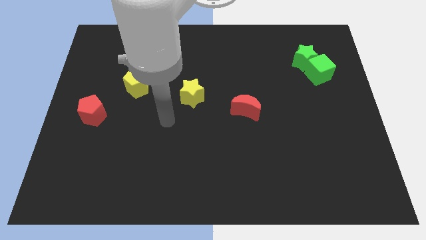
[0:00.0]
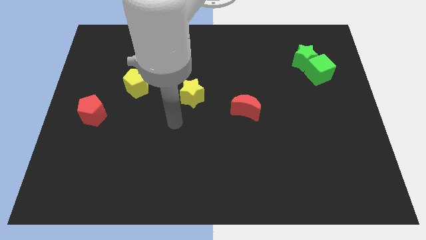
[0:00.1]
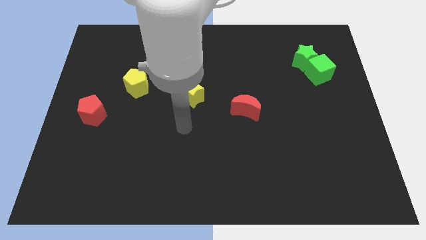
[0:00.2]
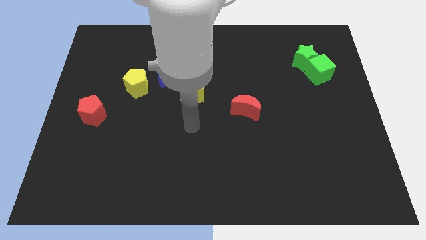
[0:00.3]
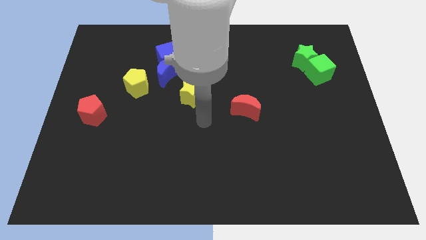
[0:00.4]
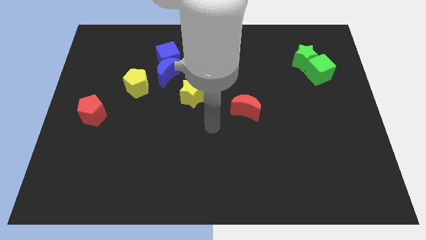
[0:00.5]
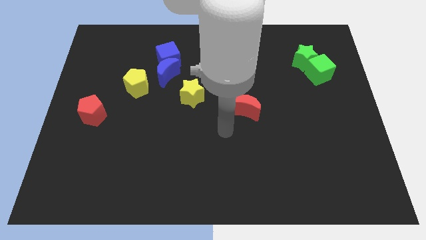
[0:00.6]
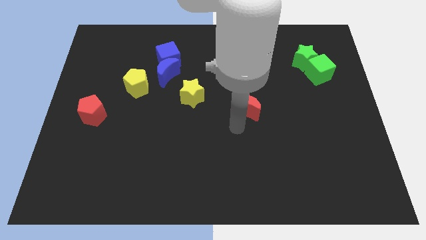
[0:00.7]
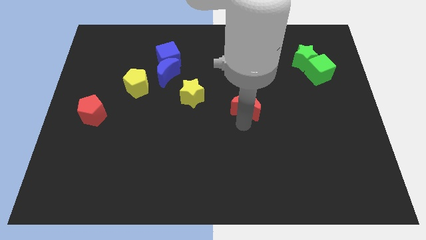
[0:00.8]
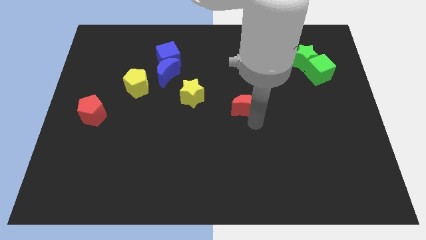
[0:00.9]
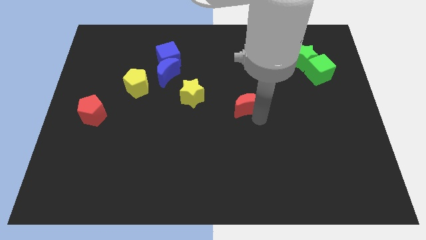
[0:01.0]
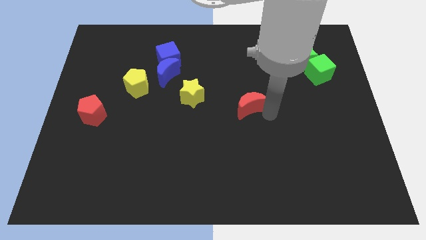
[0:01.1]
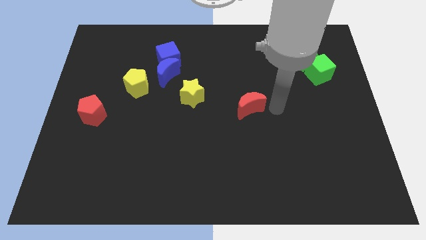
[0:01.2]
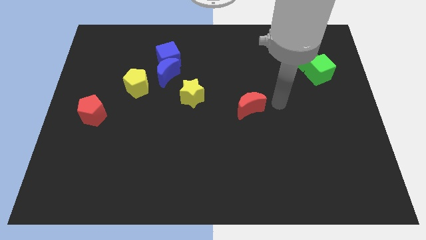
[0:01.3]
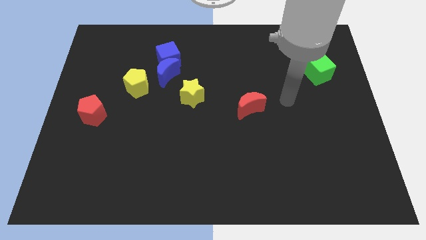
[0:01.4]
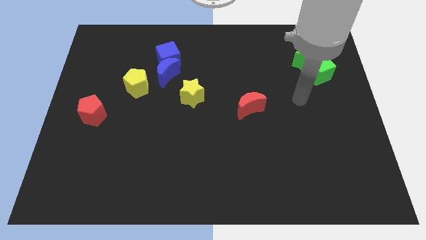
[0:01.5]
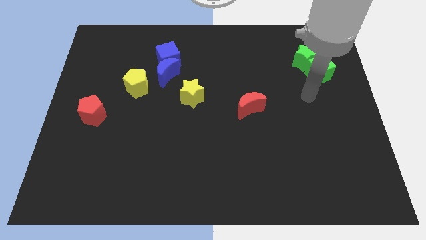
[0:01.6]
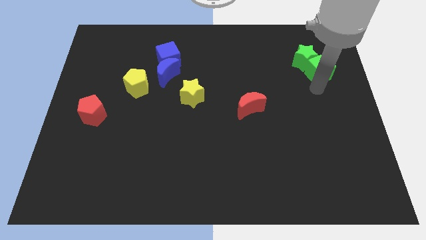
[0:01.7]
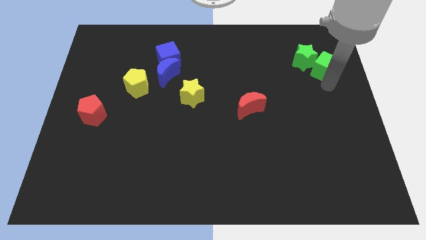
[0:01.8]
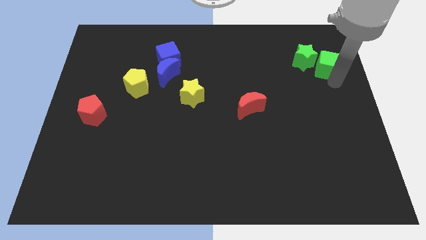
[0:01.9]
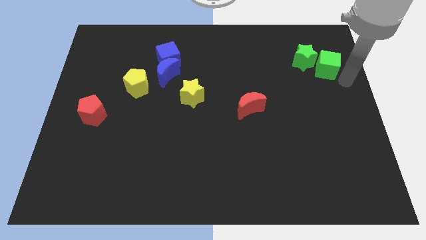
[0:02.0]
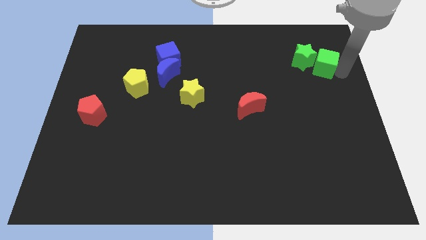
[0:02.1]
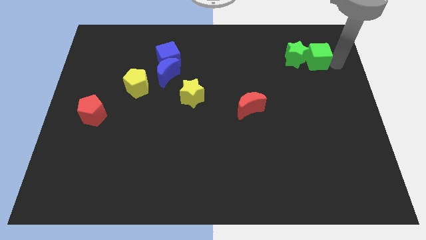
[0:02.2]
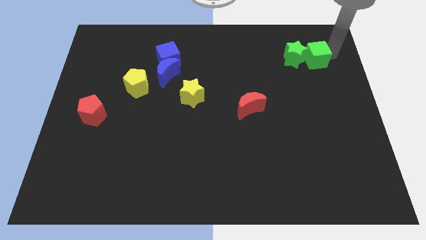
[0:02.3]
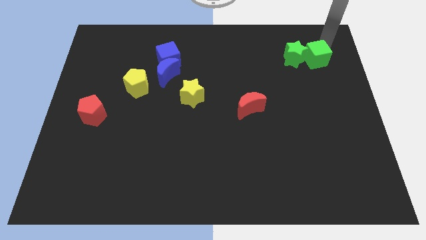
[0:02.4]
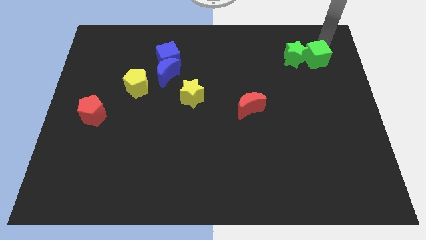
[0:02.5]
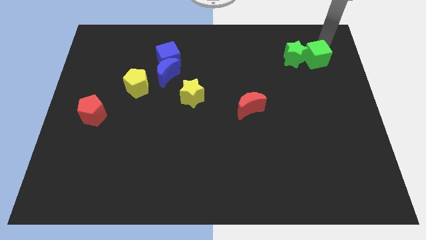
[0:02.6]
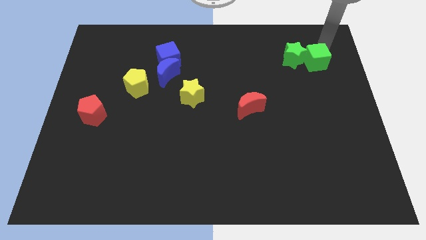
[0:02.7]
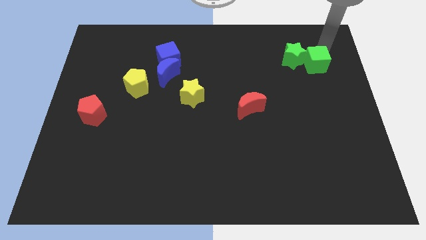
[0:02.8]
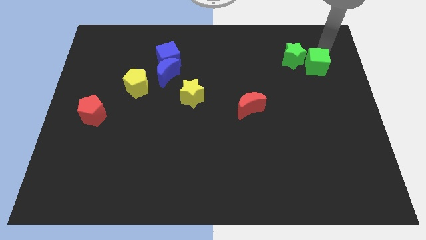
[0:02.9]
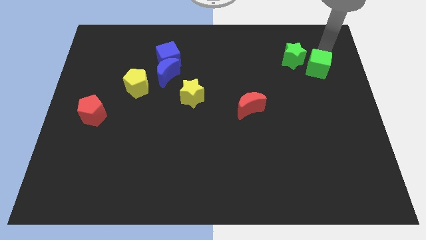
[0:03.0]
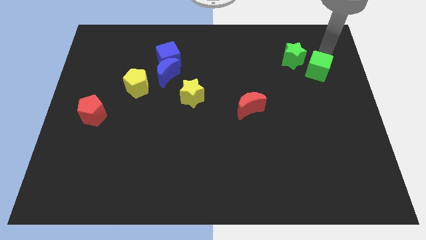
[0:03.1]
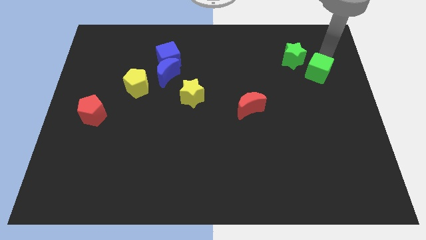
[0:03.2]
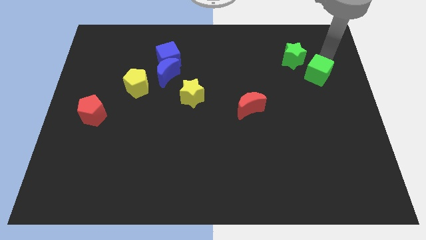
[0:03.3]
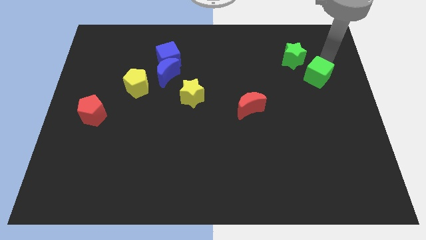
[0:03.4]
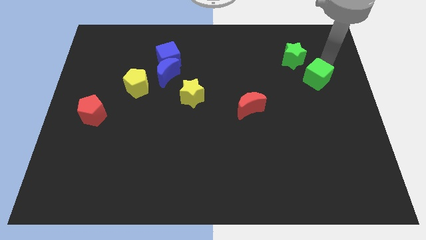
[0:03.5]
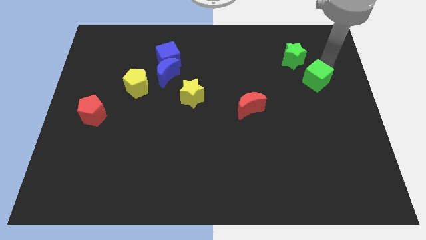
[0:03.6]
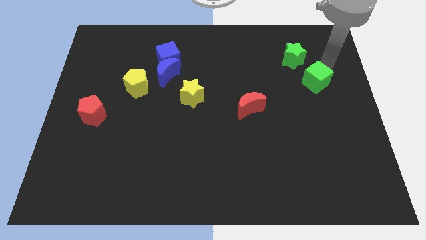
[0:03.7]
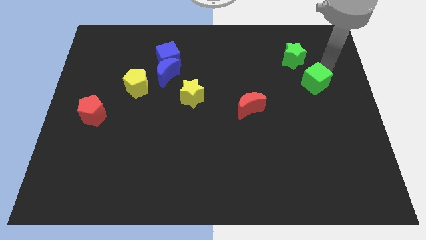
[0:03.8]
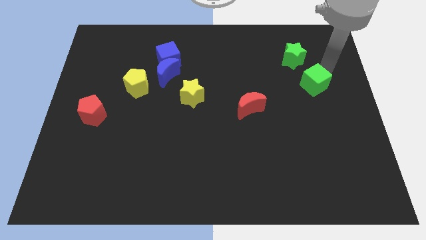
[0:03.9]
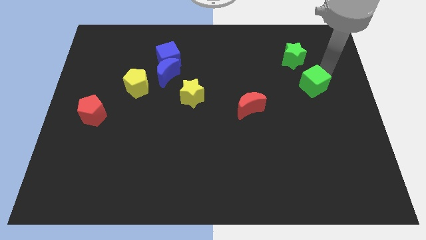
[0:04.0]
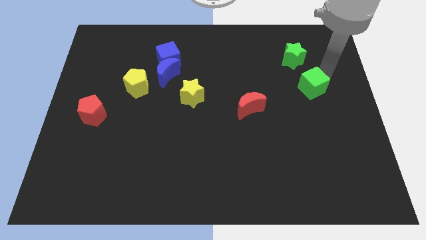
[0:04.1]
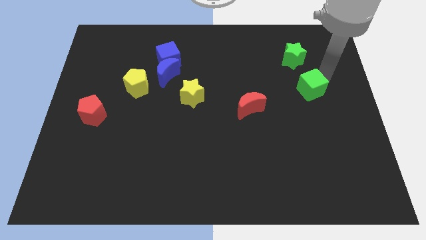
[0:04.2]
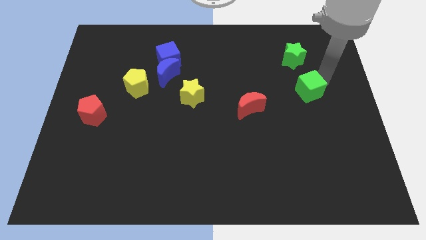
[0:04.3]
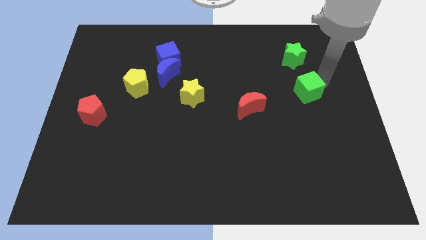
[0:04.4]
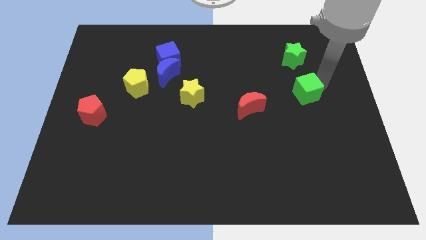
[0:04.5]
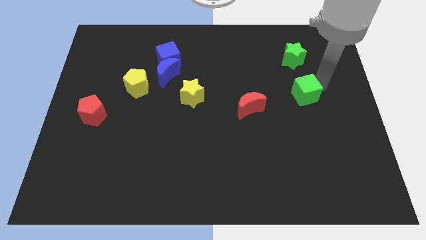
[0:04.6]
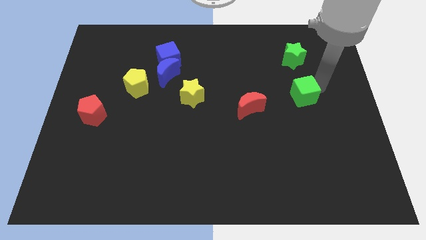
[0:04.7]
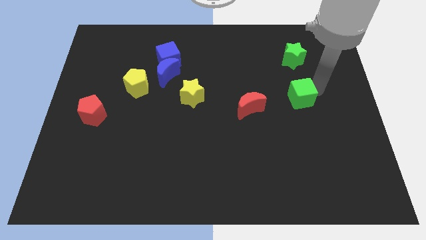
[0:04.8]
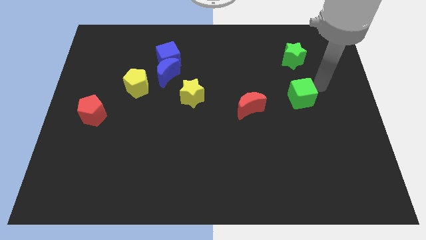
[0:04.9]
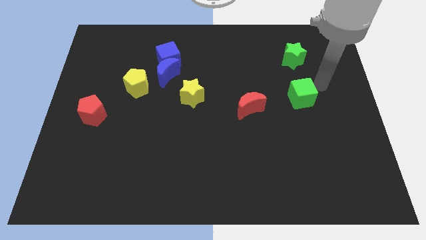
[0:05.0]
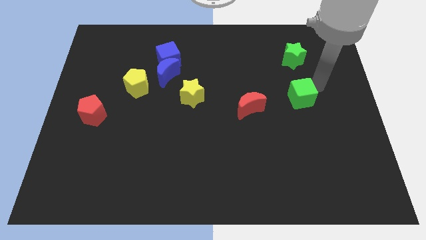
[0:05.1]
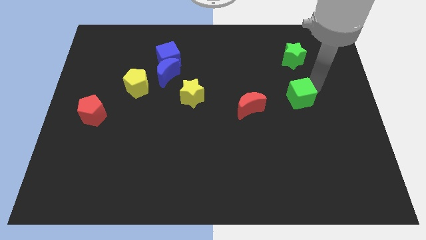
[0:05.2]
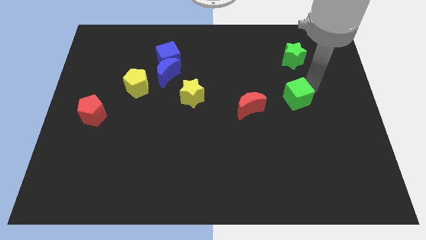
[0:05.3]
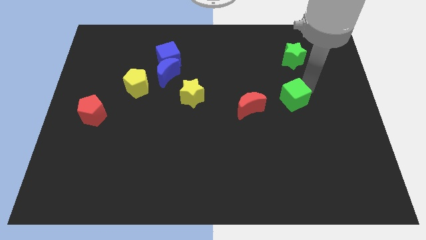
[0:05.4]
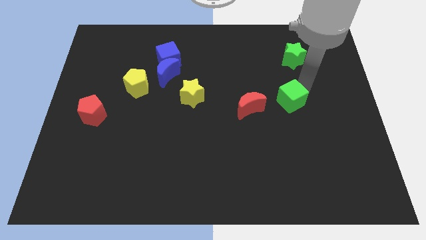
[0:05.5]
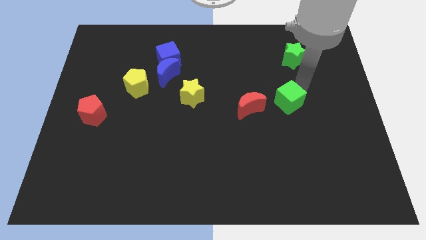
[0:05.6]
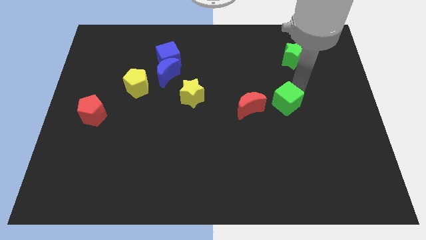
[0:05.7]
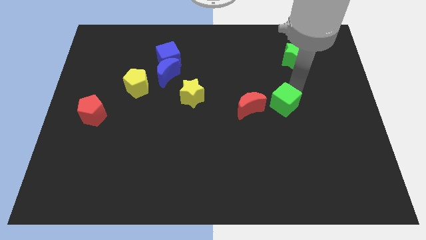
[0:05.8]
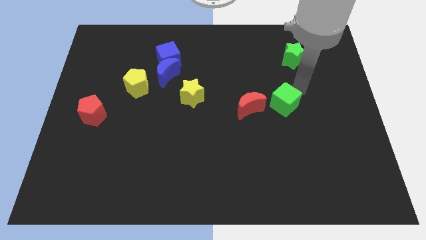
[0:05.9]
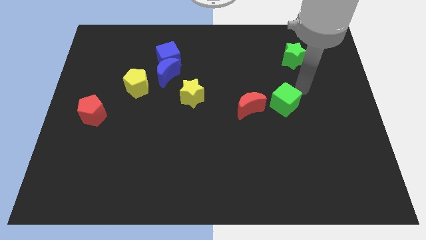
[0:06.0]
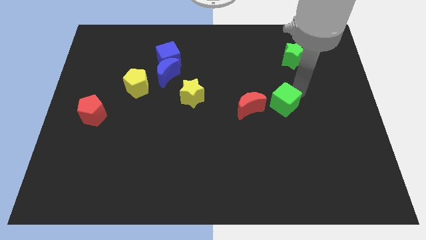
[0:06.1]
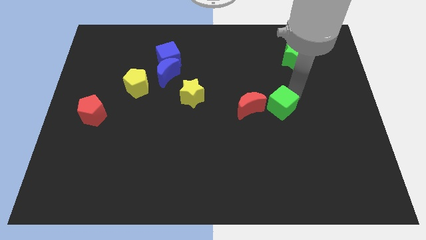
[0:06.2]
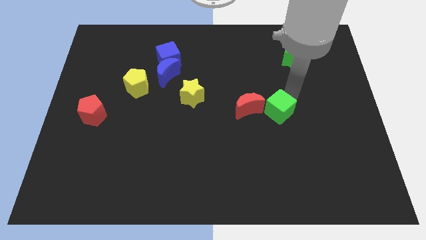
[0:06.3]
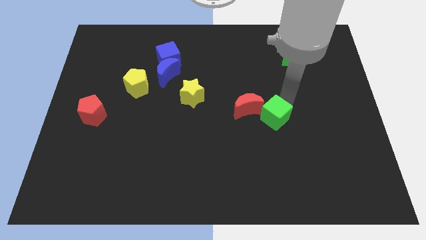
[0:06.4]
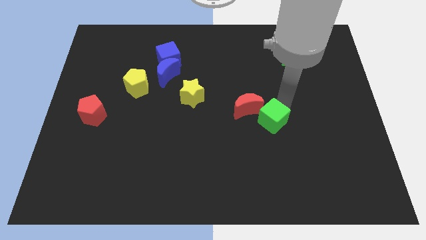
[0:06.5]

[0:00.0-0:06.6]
slide the green cube downwards and to the left diagonally

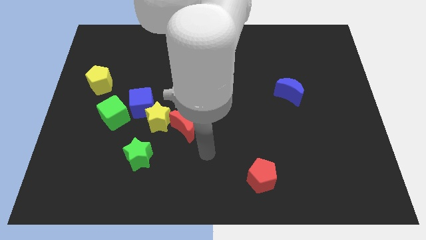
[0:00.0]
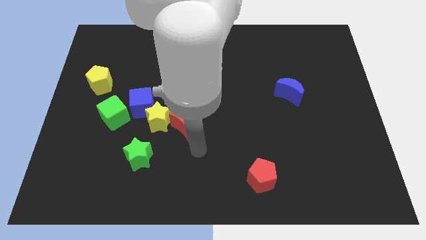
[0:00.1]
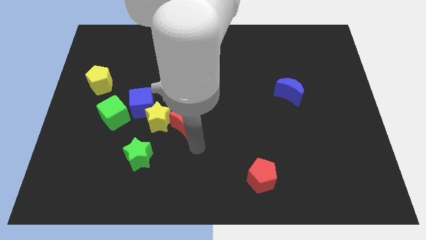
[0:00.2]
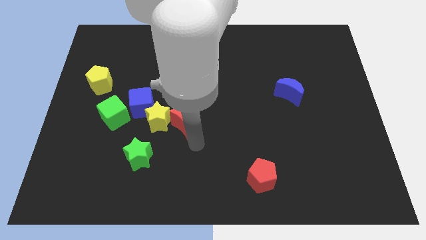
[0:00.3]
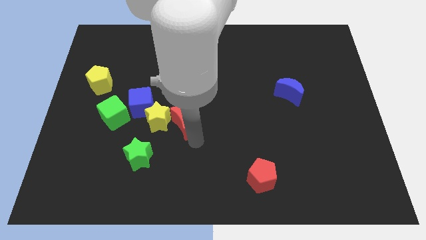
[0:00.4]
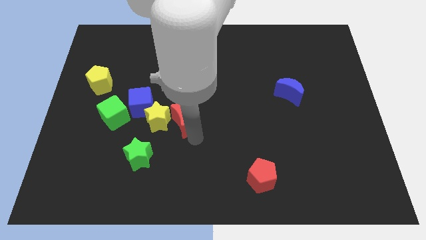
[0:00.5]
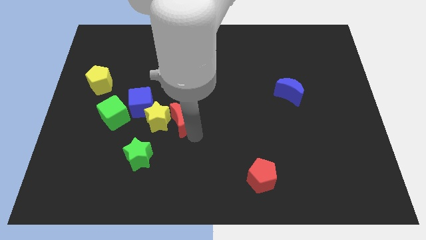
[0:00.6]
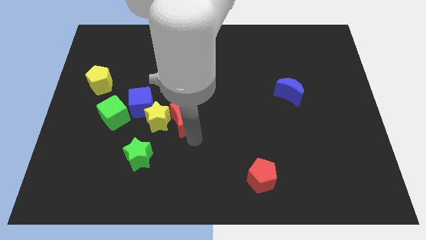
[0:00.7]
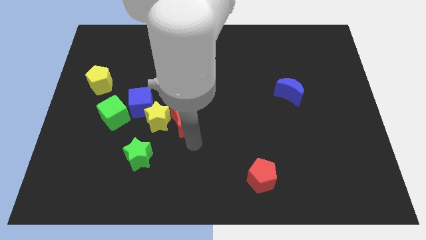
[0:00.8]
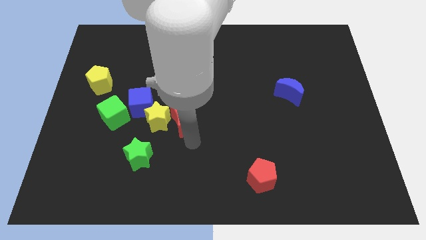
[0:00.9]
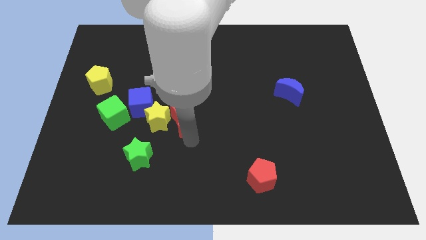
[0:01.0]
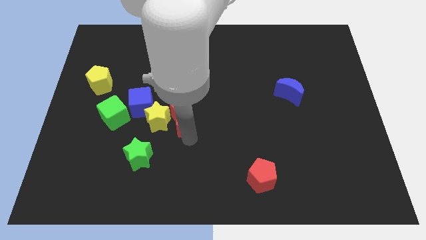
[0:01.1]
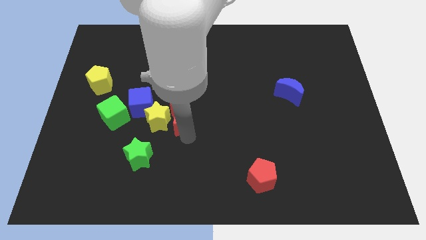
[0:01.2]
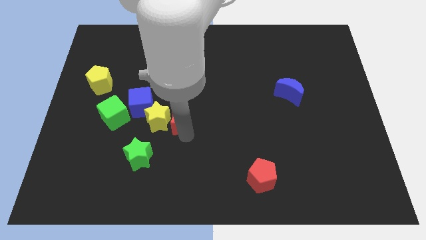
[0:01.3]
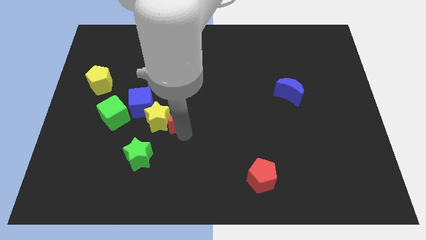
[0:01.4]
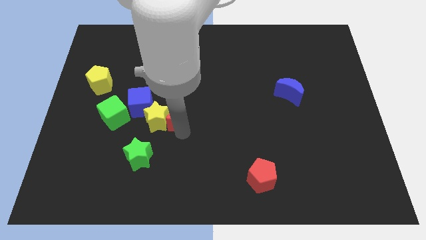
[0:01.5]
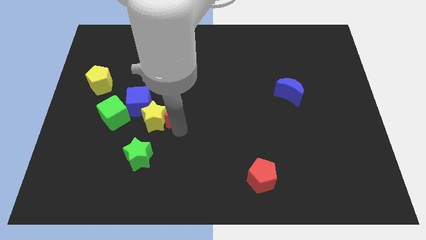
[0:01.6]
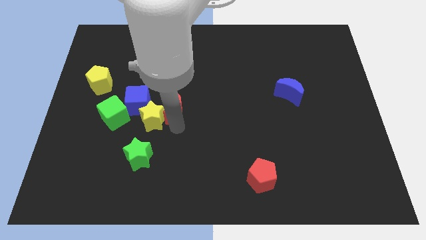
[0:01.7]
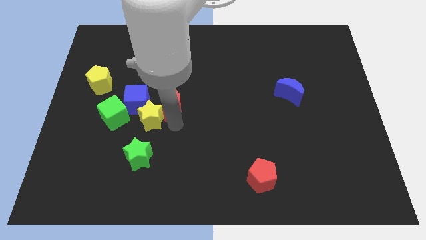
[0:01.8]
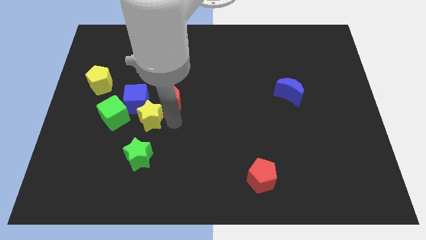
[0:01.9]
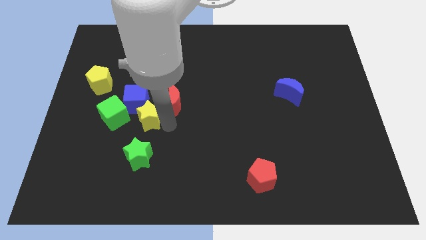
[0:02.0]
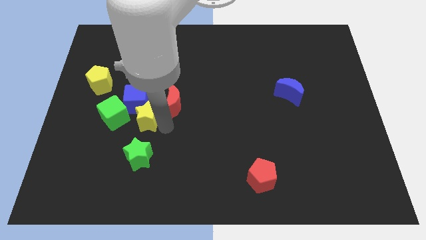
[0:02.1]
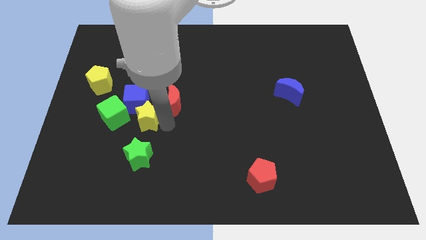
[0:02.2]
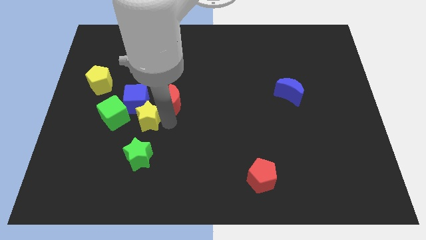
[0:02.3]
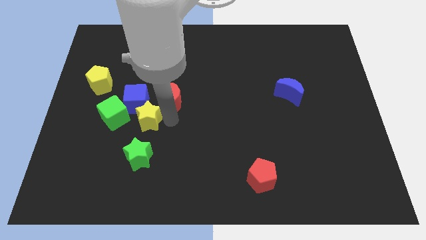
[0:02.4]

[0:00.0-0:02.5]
push the red moon a little upwards
